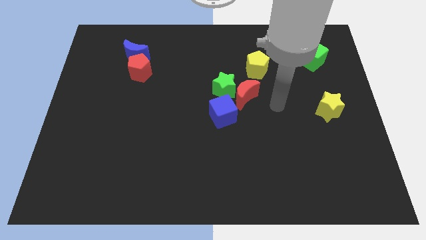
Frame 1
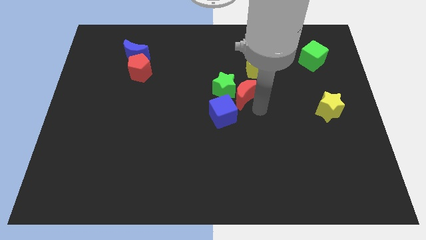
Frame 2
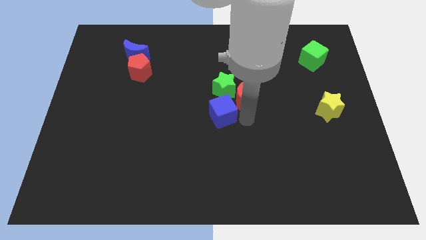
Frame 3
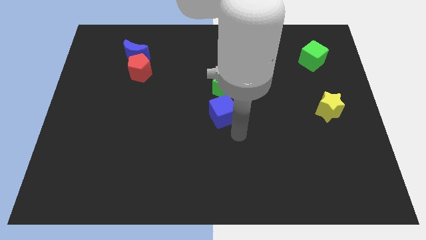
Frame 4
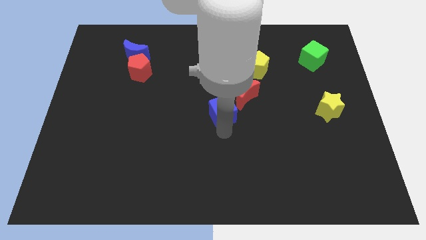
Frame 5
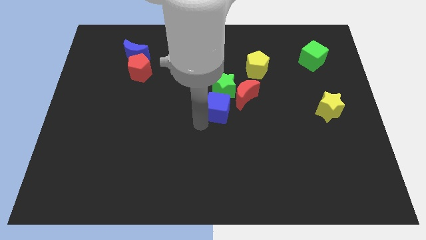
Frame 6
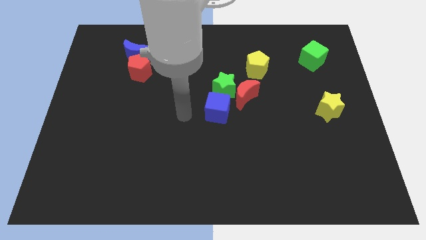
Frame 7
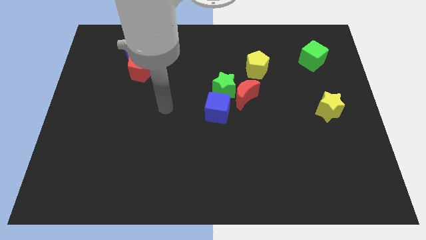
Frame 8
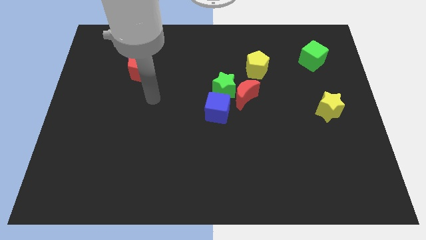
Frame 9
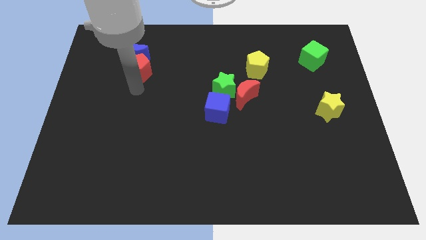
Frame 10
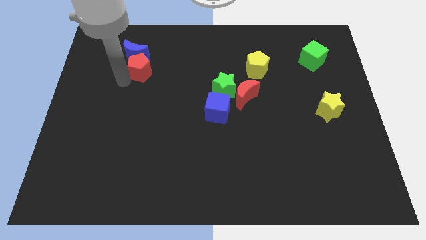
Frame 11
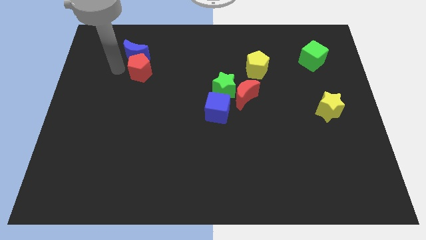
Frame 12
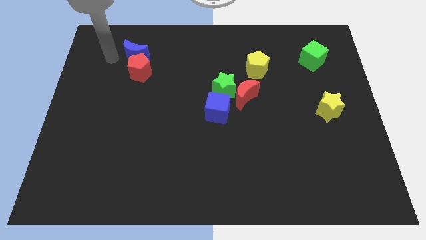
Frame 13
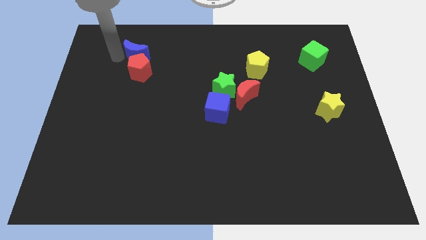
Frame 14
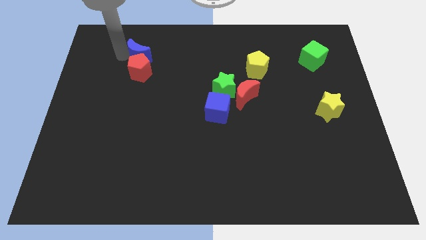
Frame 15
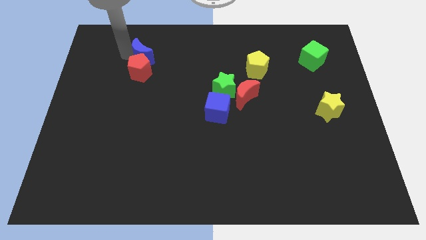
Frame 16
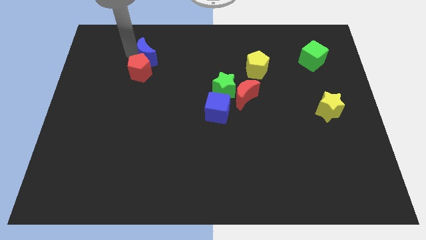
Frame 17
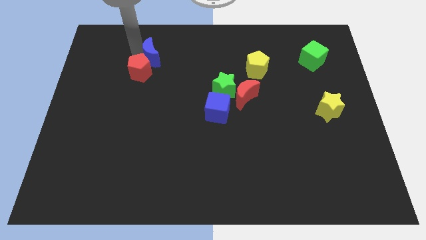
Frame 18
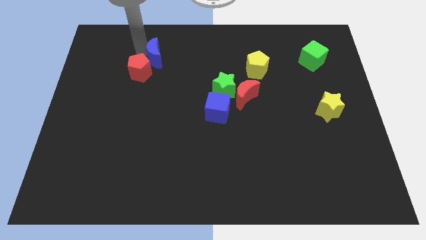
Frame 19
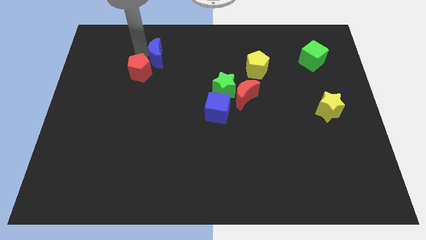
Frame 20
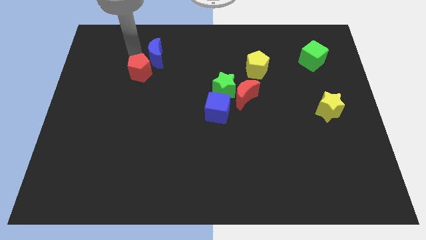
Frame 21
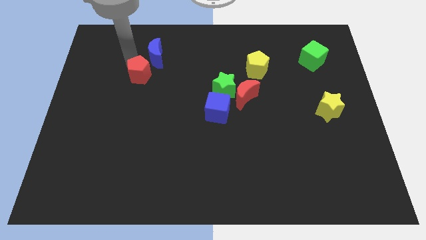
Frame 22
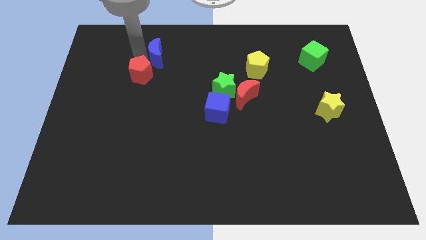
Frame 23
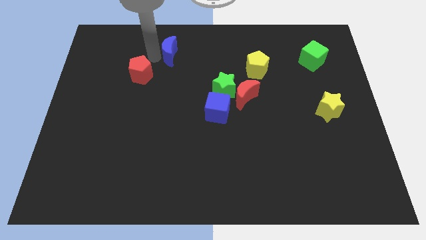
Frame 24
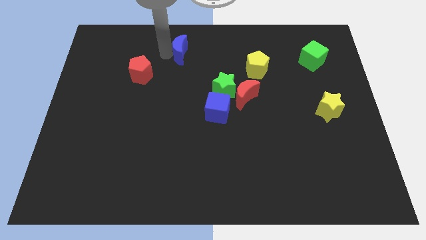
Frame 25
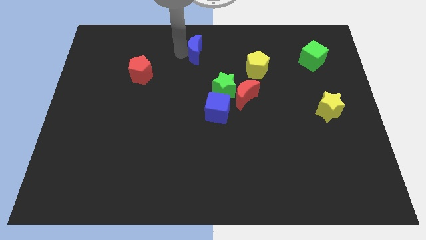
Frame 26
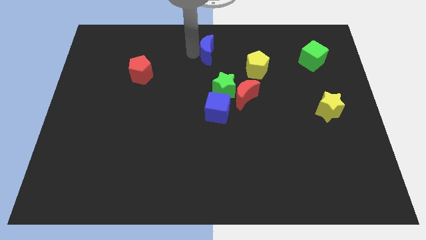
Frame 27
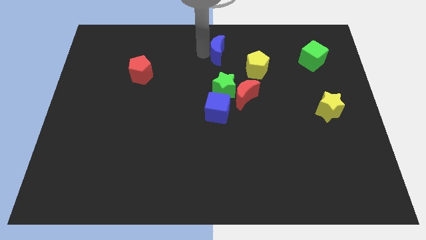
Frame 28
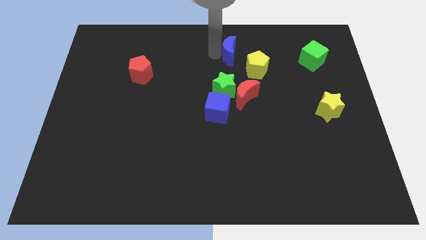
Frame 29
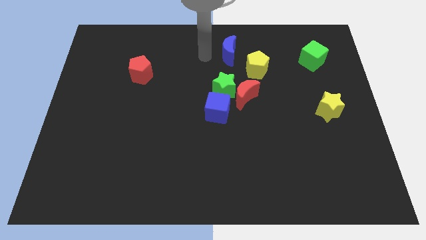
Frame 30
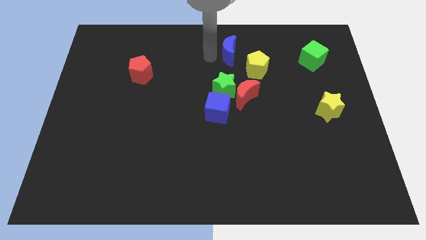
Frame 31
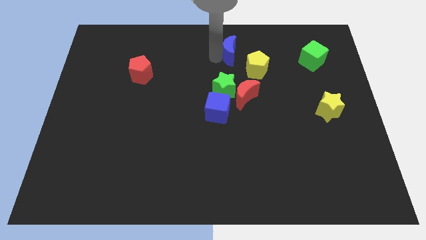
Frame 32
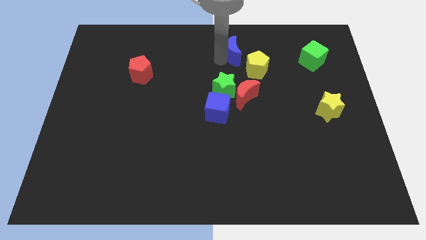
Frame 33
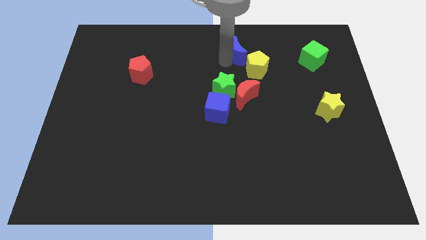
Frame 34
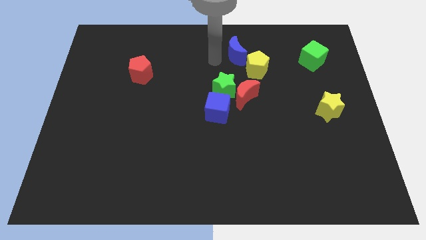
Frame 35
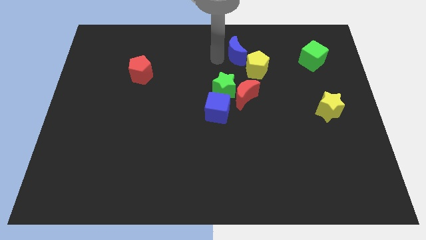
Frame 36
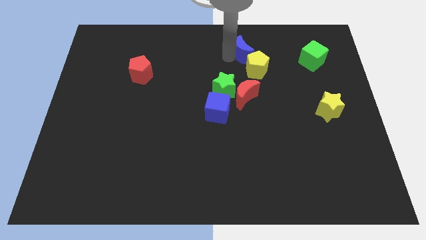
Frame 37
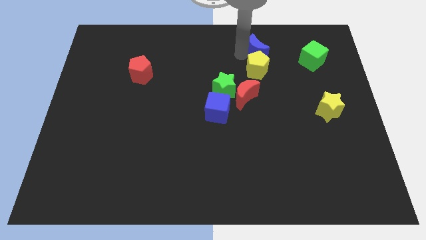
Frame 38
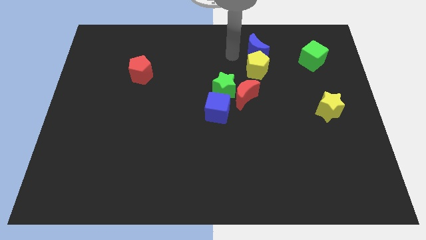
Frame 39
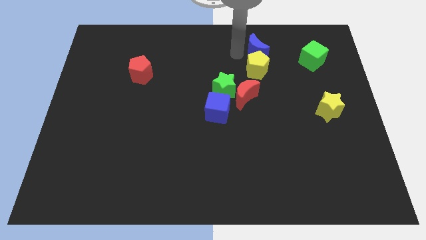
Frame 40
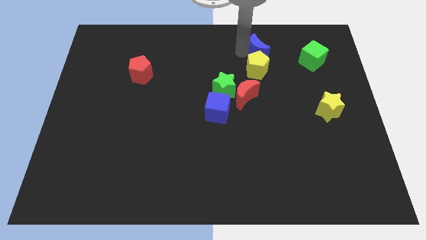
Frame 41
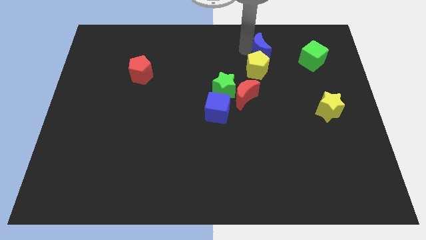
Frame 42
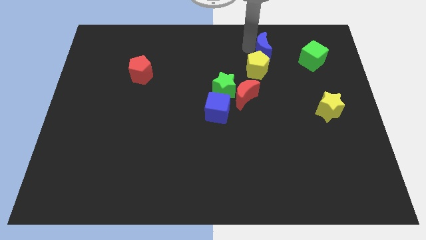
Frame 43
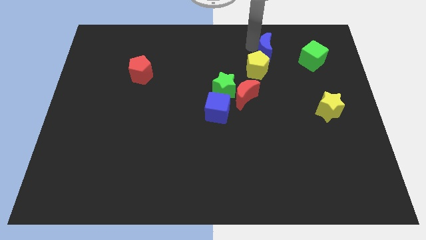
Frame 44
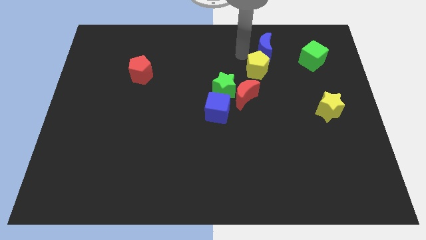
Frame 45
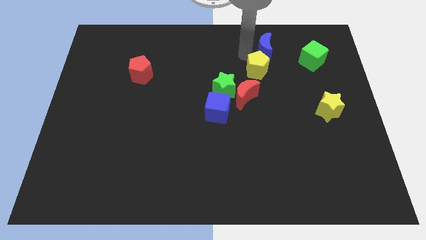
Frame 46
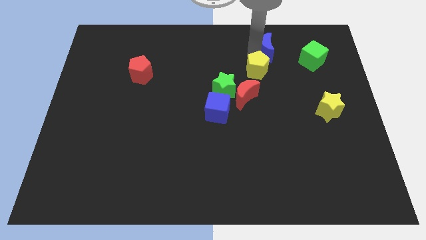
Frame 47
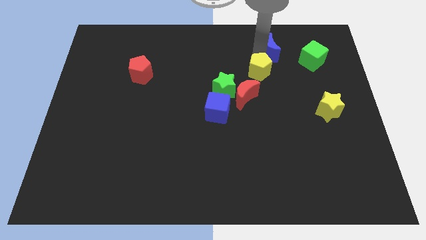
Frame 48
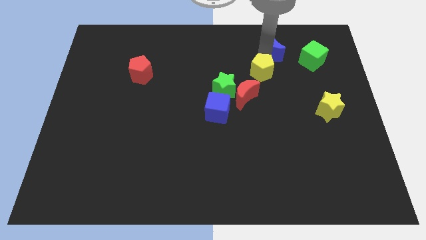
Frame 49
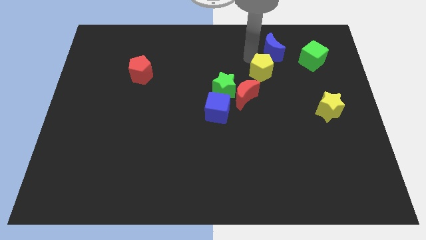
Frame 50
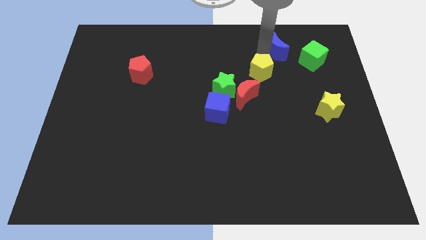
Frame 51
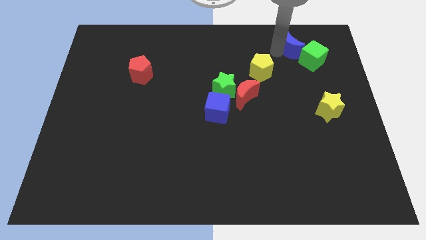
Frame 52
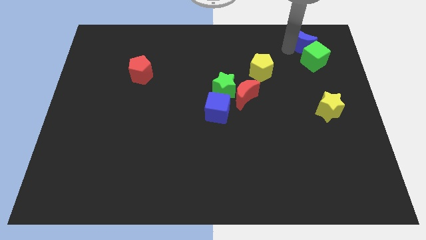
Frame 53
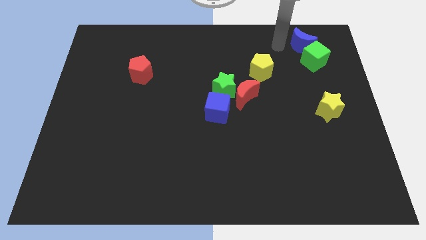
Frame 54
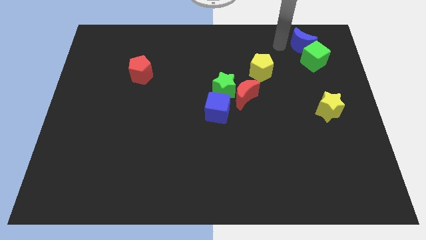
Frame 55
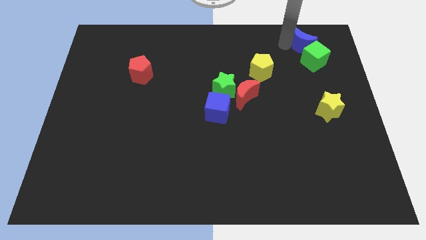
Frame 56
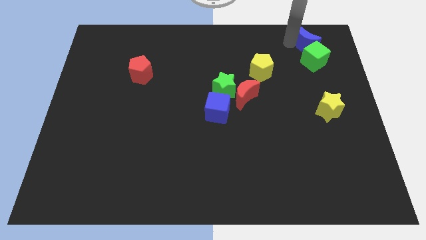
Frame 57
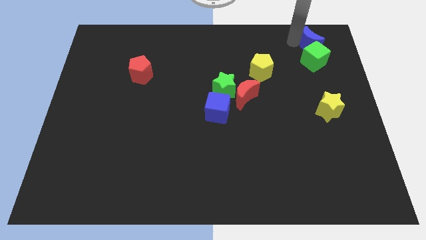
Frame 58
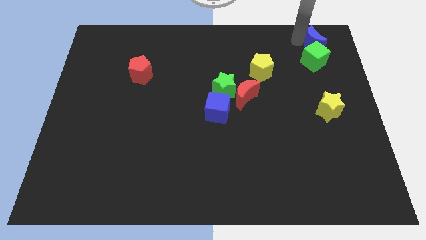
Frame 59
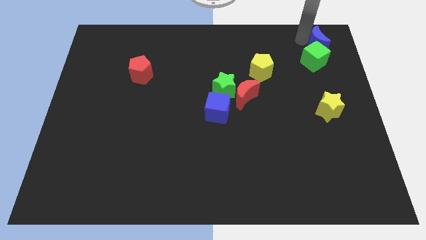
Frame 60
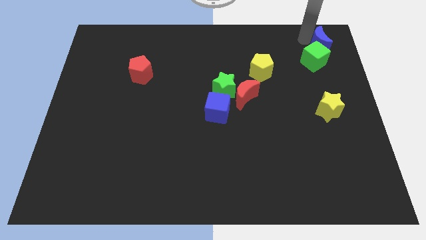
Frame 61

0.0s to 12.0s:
push the blue moon to the top right

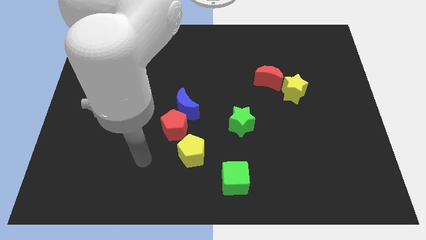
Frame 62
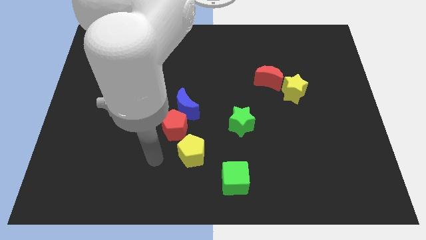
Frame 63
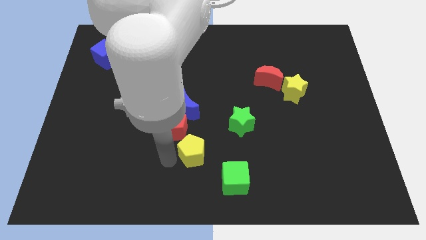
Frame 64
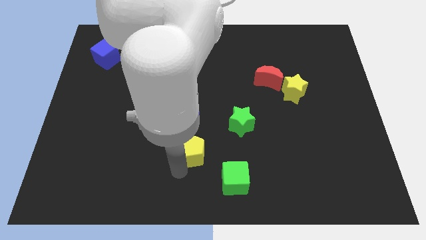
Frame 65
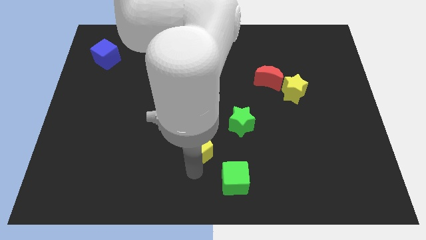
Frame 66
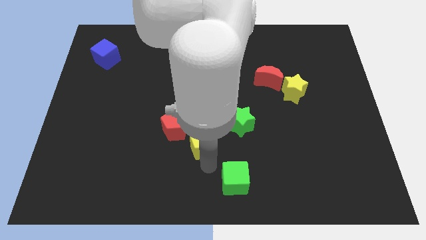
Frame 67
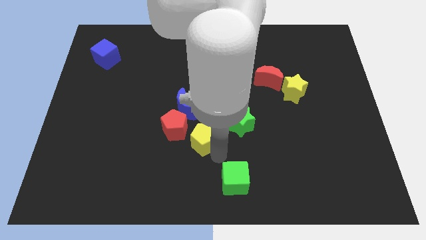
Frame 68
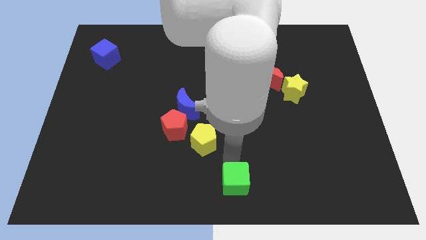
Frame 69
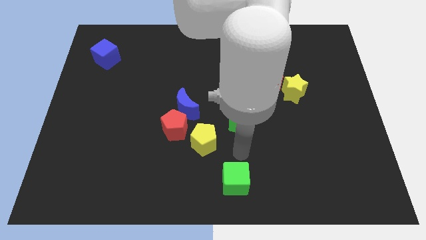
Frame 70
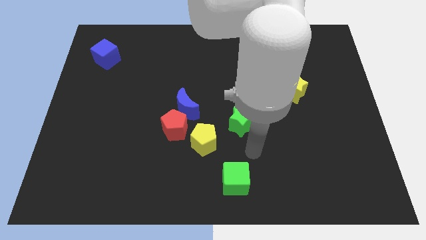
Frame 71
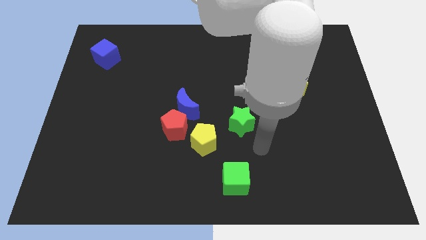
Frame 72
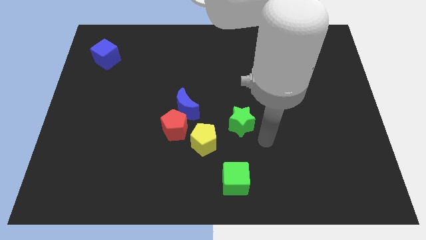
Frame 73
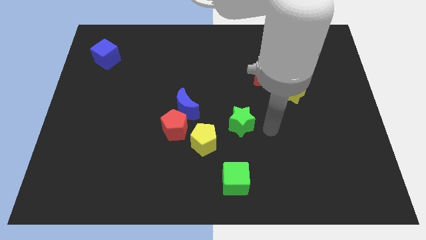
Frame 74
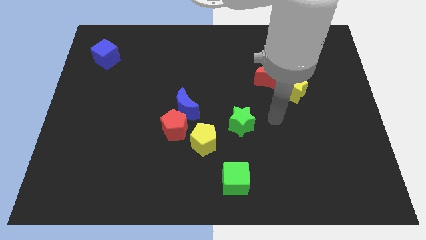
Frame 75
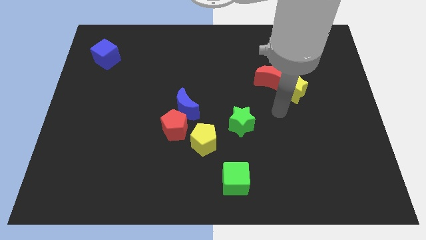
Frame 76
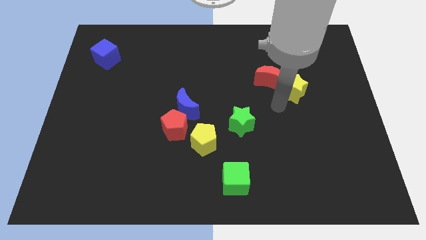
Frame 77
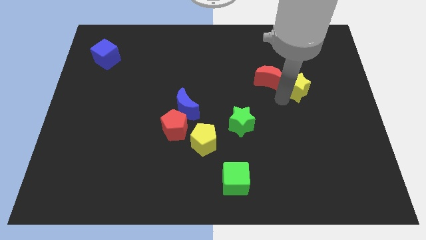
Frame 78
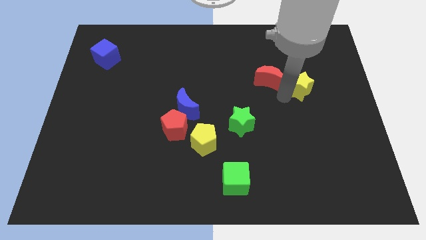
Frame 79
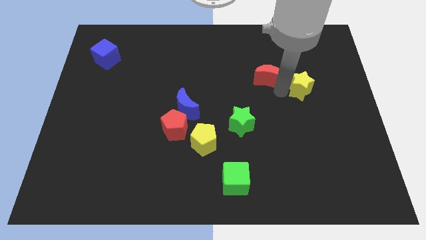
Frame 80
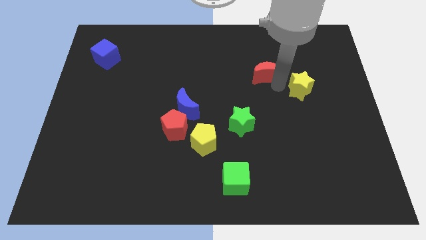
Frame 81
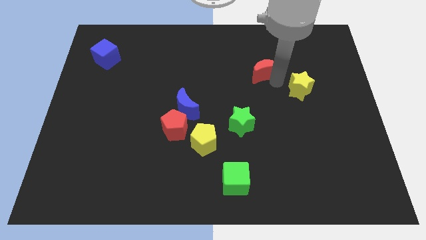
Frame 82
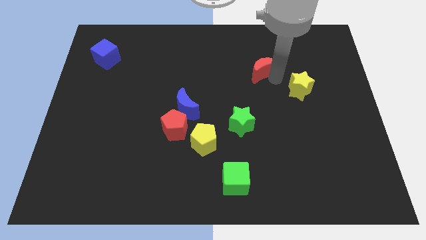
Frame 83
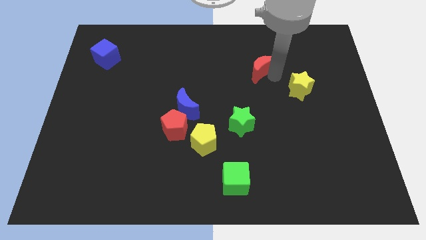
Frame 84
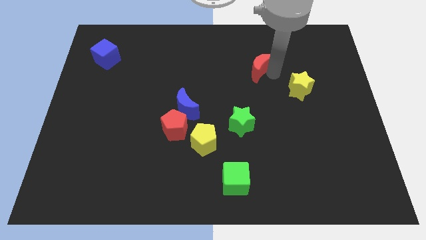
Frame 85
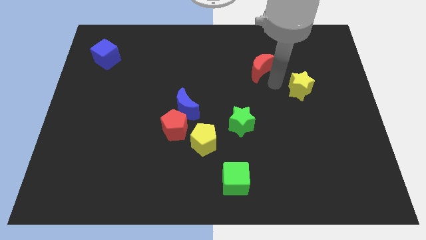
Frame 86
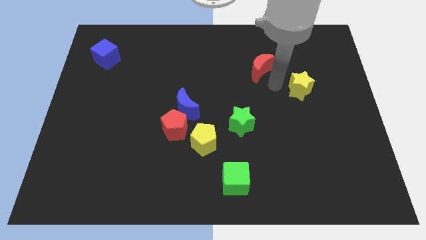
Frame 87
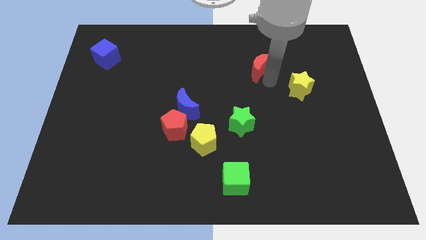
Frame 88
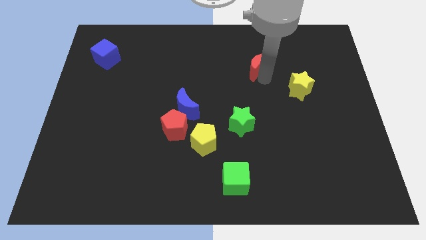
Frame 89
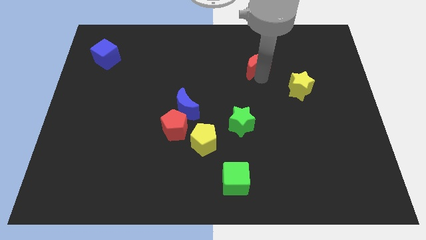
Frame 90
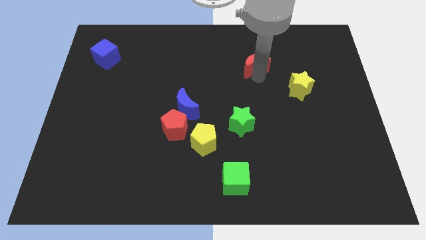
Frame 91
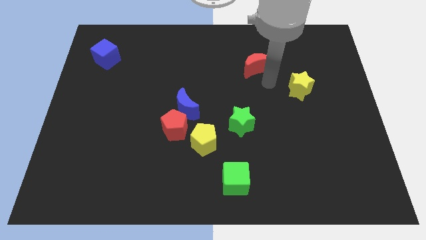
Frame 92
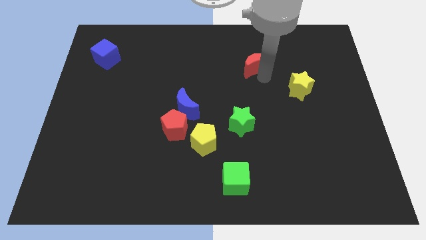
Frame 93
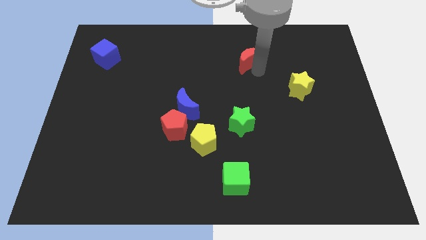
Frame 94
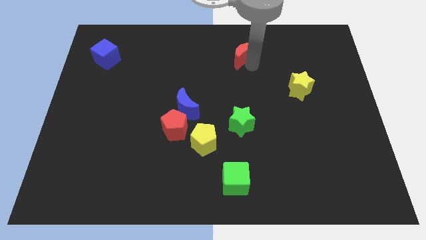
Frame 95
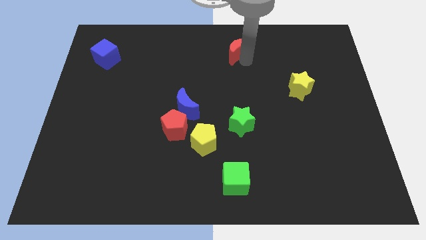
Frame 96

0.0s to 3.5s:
slide the red moon to the towards your base
